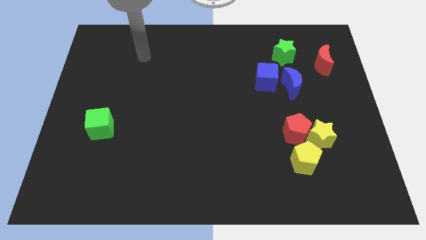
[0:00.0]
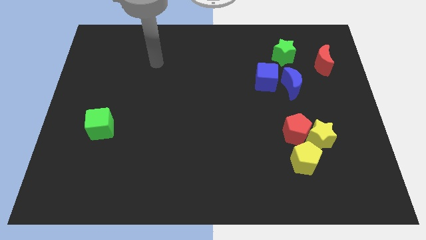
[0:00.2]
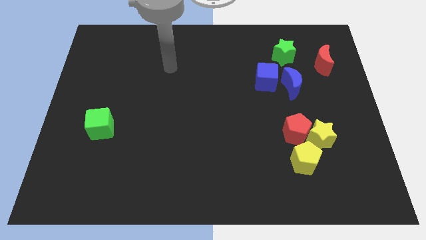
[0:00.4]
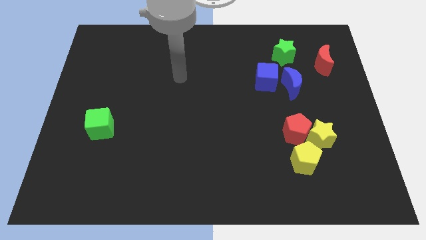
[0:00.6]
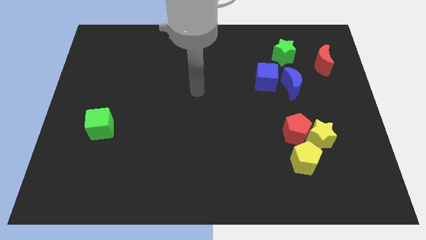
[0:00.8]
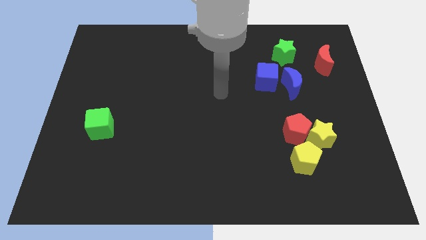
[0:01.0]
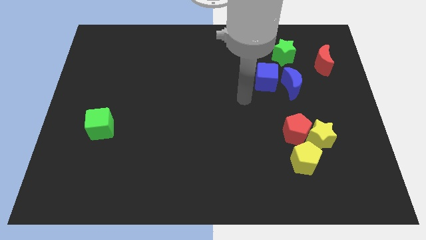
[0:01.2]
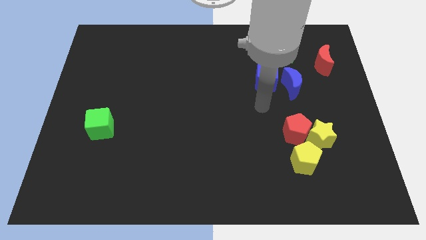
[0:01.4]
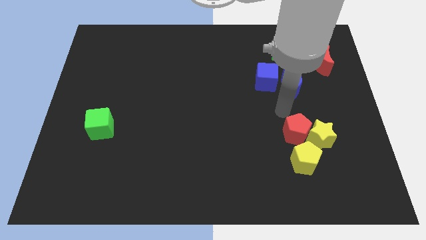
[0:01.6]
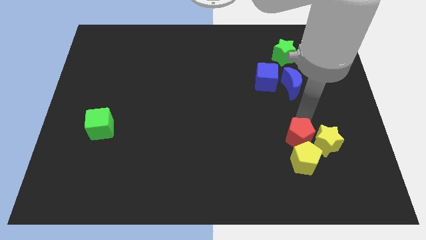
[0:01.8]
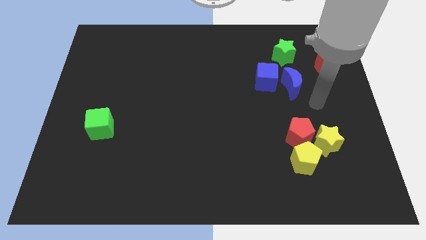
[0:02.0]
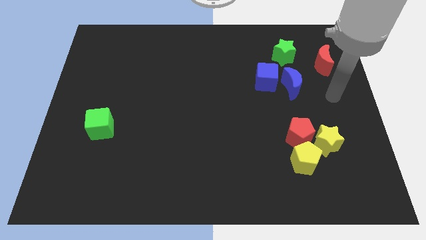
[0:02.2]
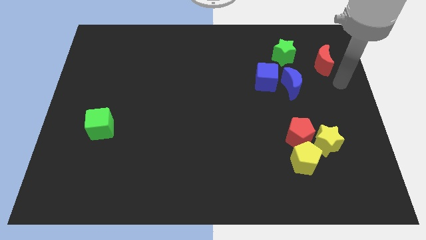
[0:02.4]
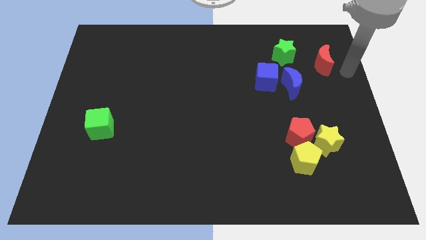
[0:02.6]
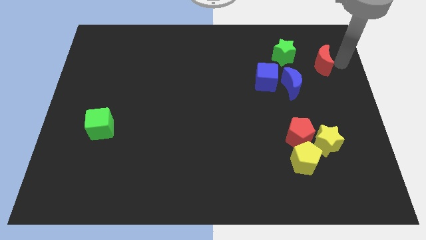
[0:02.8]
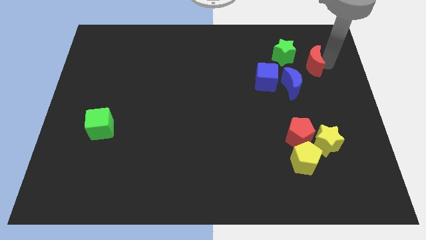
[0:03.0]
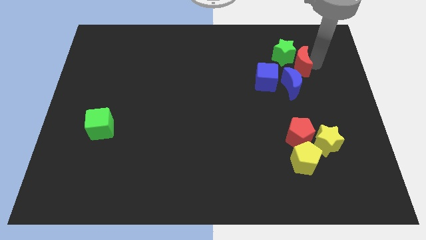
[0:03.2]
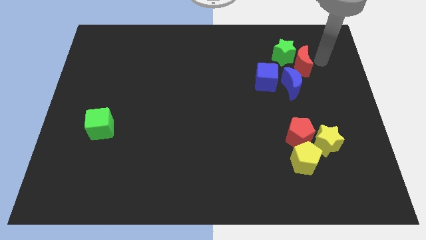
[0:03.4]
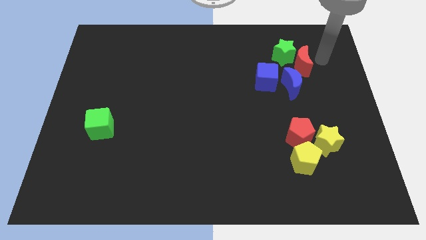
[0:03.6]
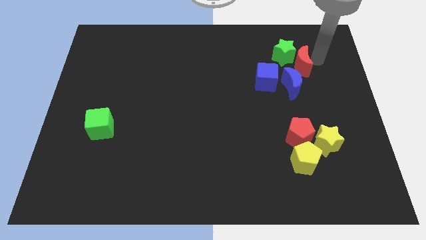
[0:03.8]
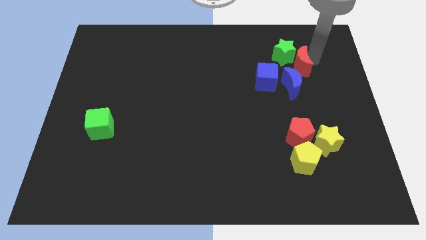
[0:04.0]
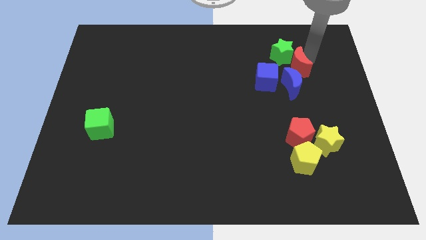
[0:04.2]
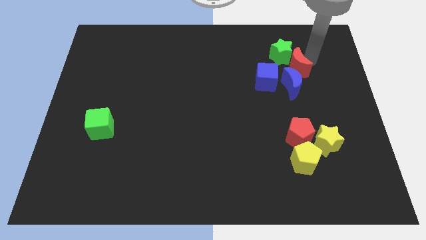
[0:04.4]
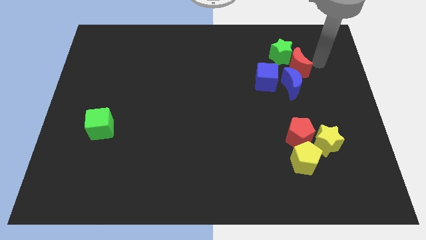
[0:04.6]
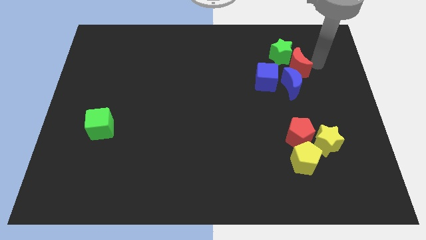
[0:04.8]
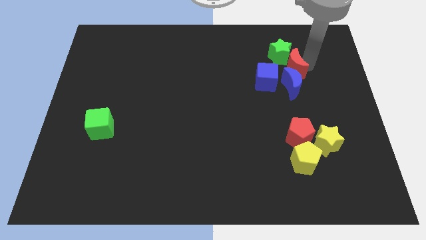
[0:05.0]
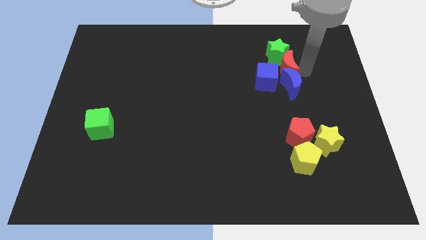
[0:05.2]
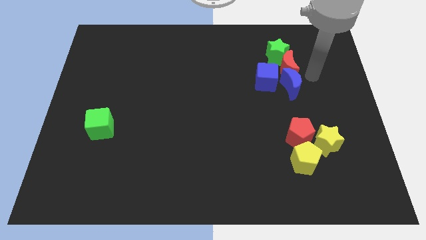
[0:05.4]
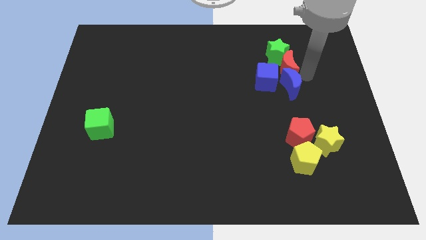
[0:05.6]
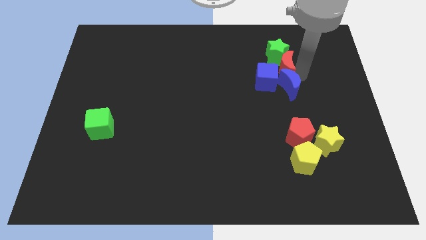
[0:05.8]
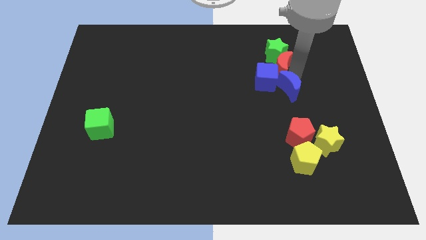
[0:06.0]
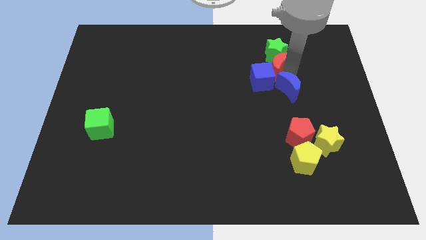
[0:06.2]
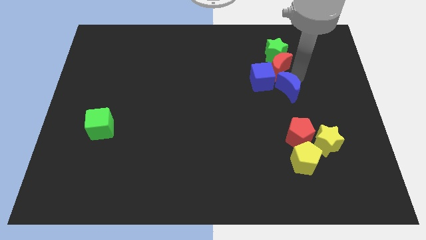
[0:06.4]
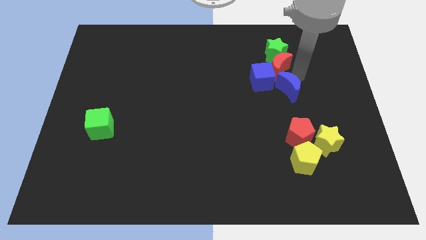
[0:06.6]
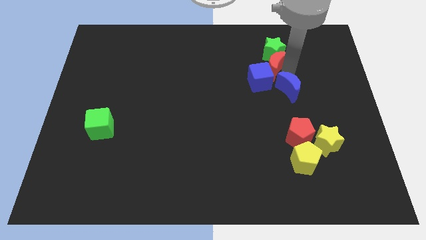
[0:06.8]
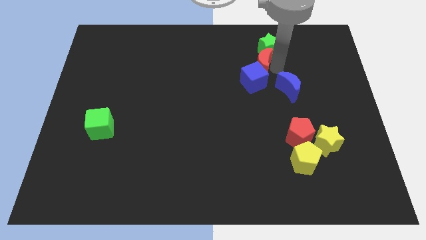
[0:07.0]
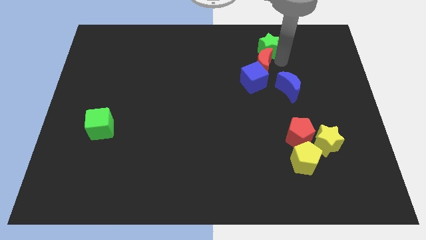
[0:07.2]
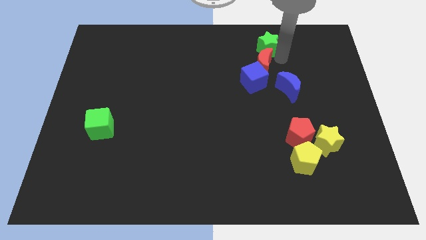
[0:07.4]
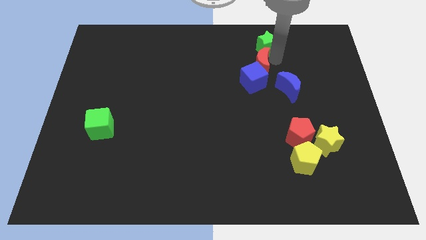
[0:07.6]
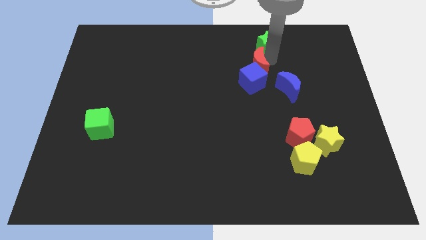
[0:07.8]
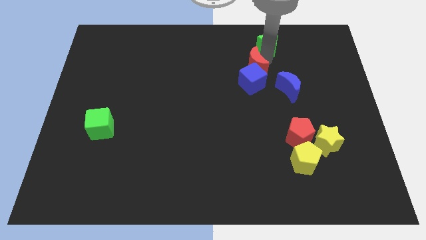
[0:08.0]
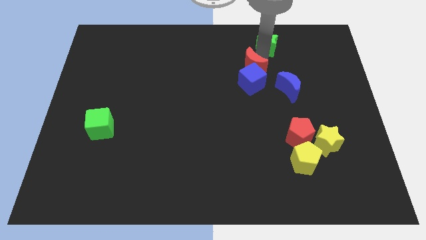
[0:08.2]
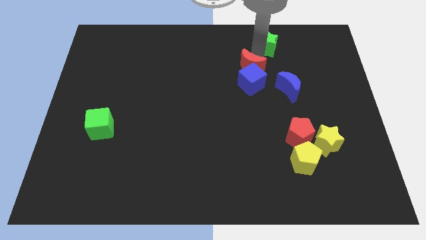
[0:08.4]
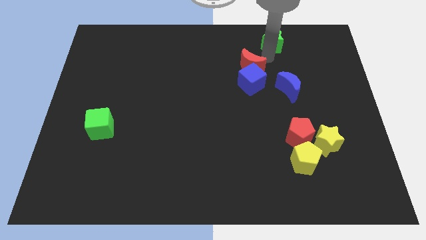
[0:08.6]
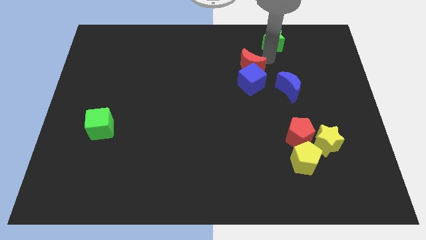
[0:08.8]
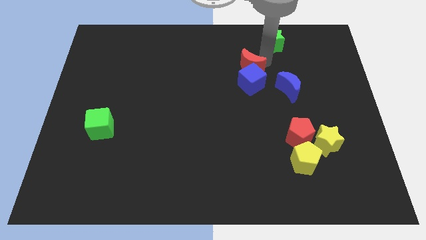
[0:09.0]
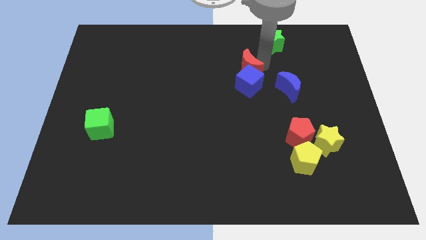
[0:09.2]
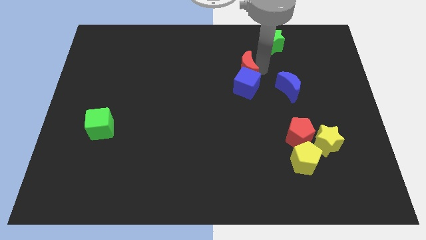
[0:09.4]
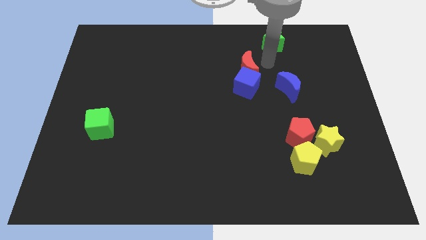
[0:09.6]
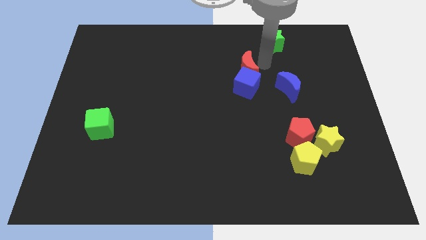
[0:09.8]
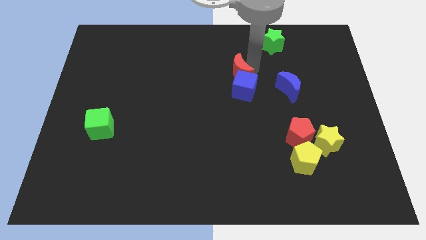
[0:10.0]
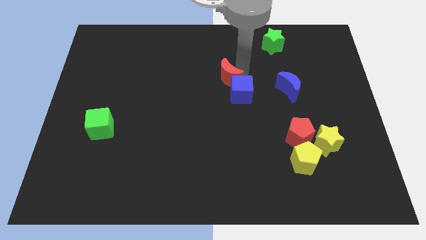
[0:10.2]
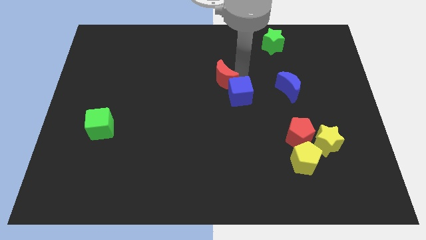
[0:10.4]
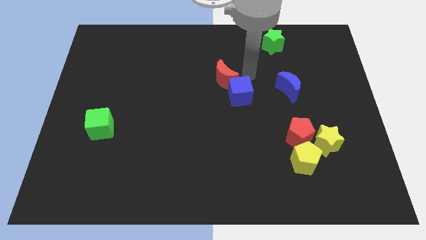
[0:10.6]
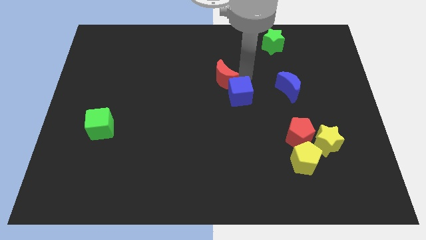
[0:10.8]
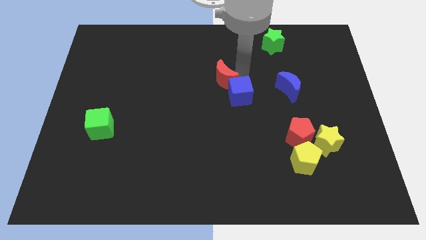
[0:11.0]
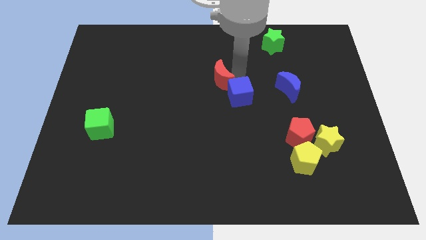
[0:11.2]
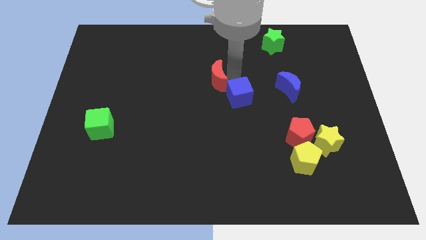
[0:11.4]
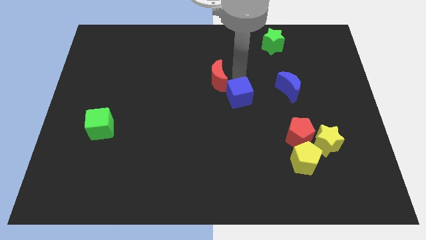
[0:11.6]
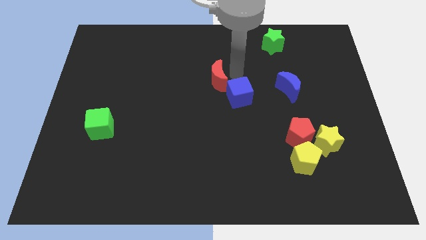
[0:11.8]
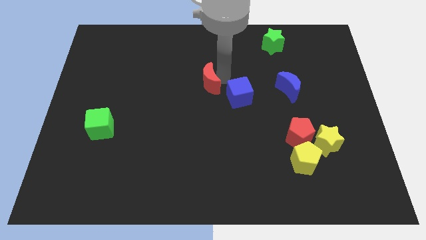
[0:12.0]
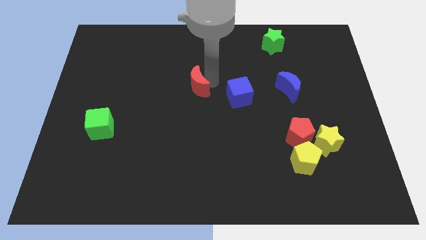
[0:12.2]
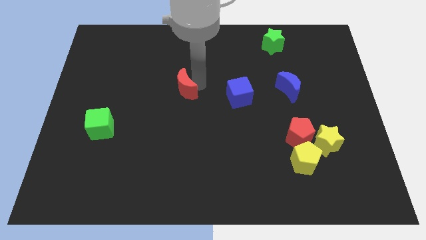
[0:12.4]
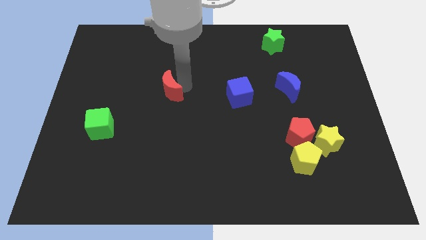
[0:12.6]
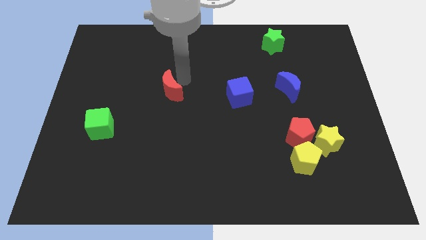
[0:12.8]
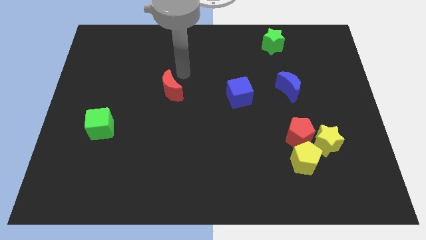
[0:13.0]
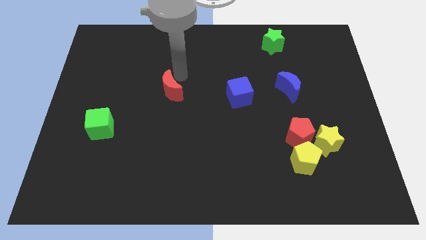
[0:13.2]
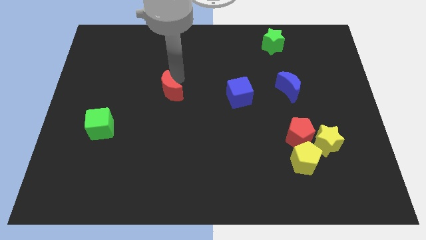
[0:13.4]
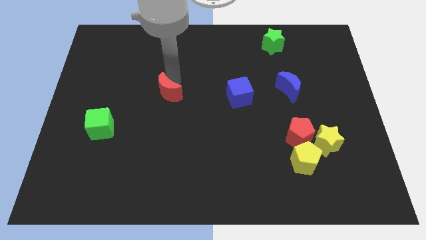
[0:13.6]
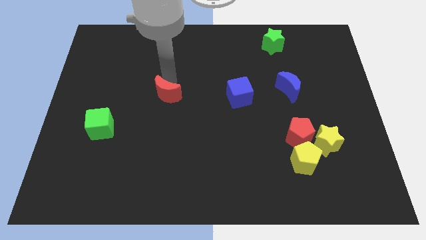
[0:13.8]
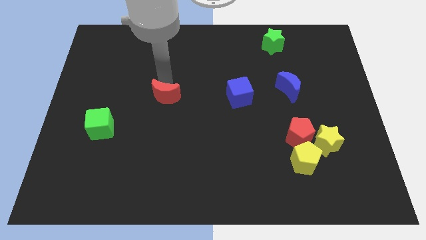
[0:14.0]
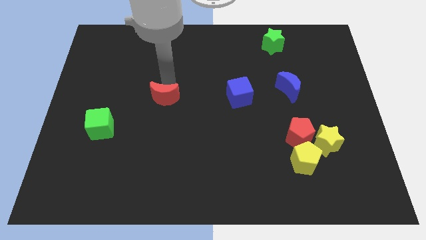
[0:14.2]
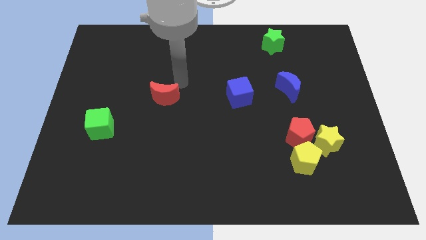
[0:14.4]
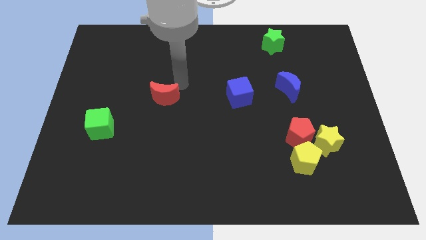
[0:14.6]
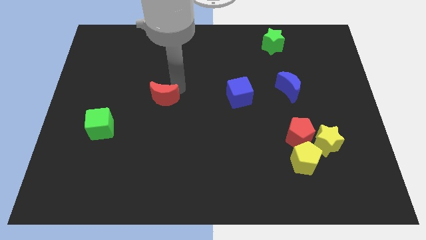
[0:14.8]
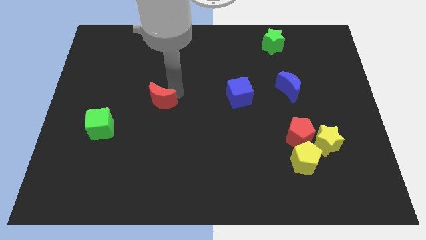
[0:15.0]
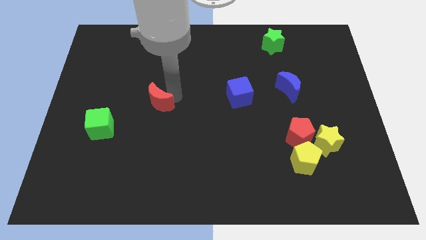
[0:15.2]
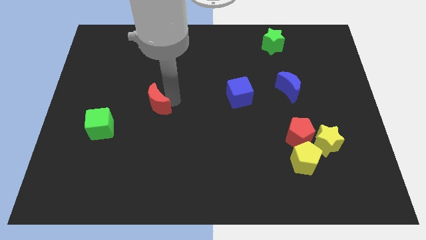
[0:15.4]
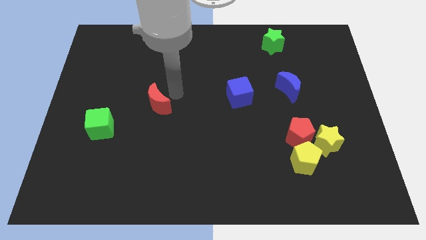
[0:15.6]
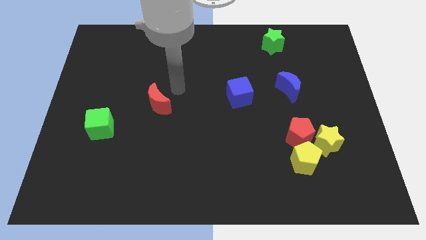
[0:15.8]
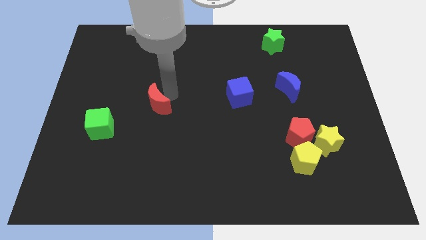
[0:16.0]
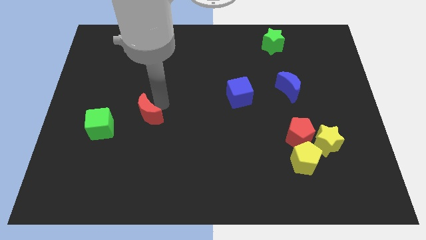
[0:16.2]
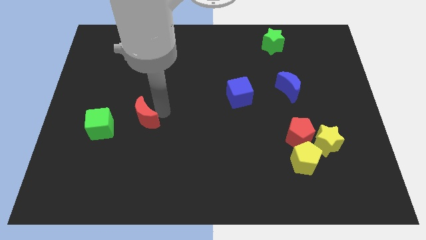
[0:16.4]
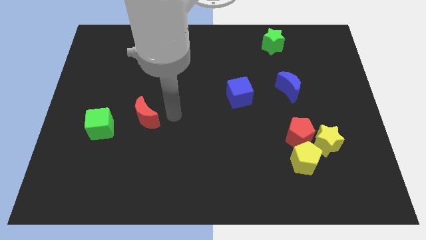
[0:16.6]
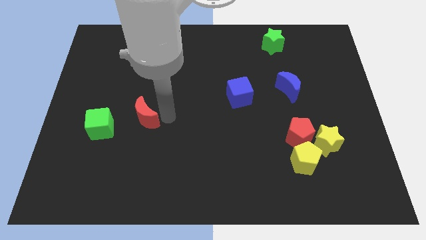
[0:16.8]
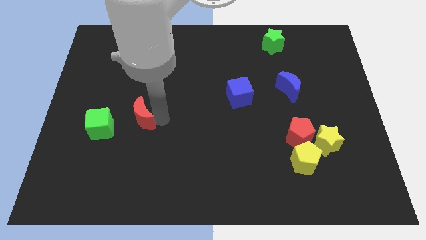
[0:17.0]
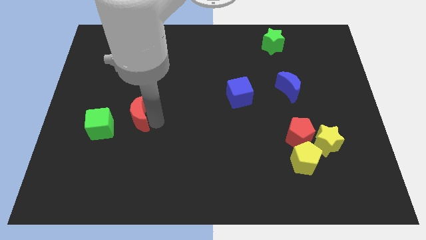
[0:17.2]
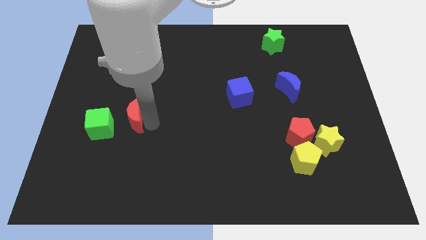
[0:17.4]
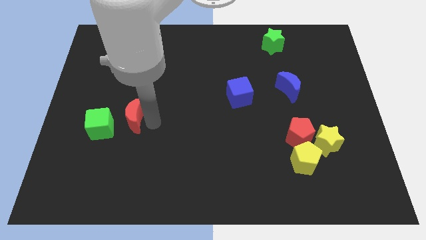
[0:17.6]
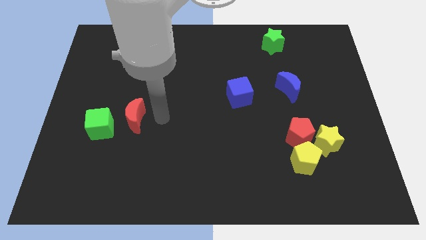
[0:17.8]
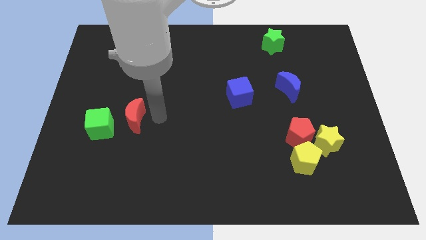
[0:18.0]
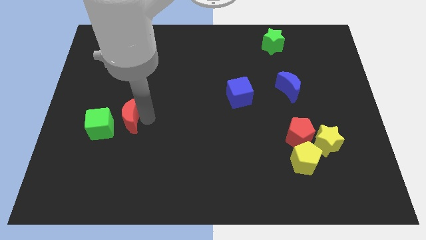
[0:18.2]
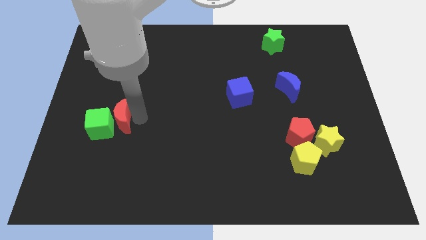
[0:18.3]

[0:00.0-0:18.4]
push the red moon to the green cube
